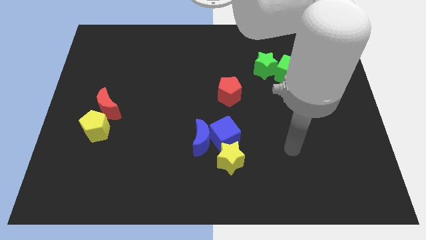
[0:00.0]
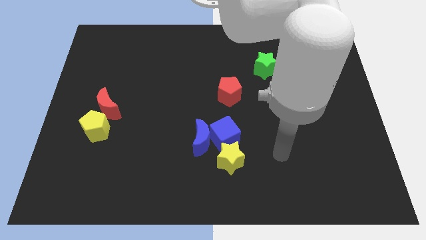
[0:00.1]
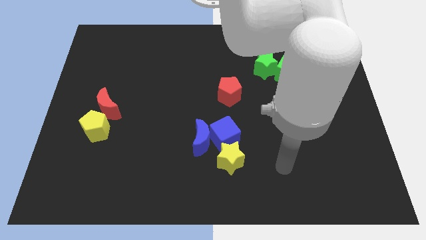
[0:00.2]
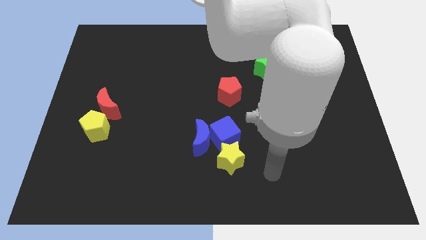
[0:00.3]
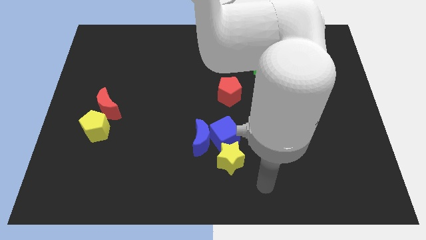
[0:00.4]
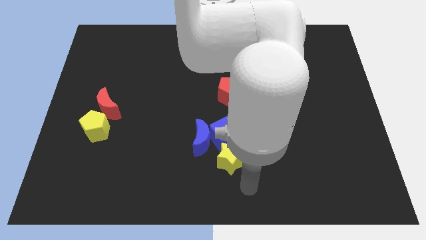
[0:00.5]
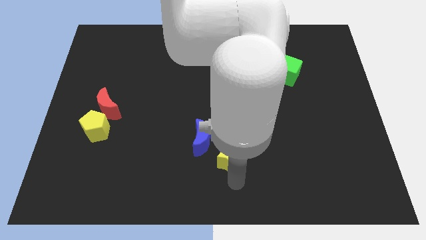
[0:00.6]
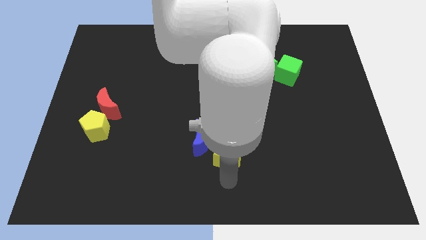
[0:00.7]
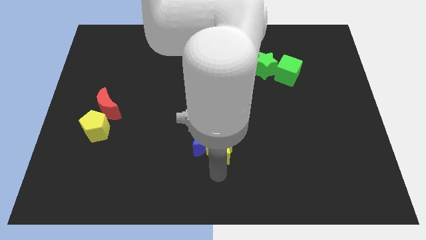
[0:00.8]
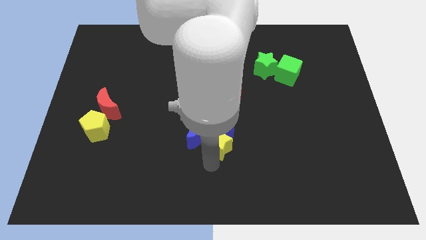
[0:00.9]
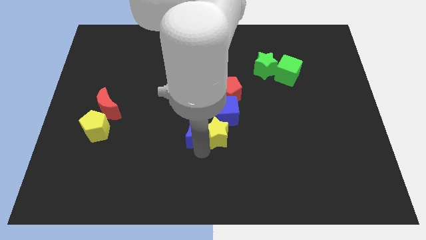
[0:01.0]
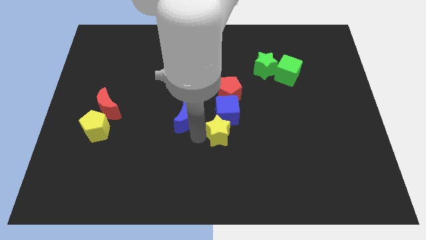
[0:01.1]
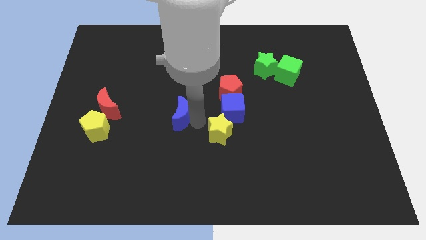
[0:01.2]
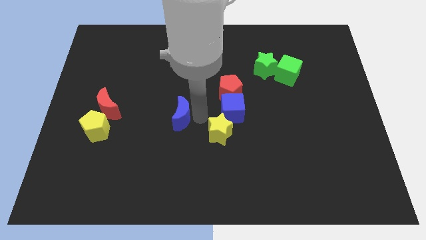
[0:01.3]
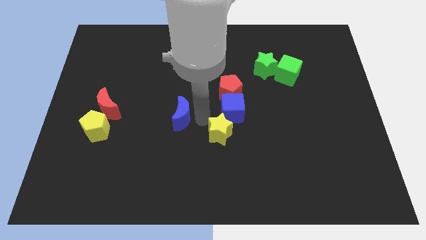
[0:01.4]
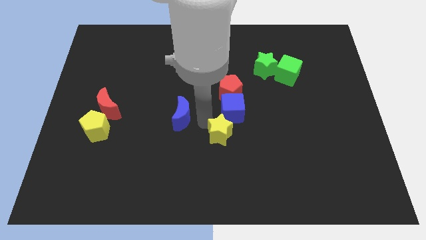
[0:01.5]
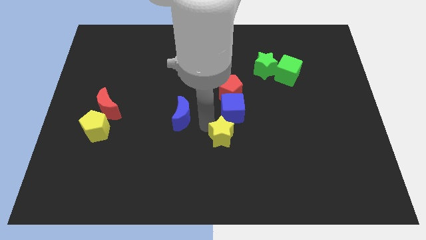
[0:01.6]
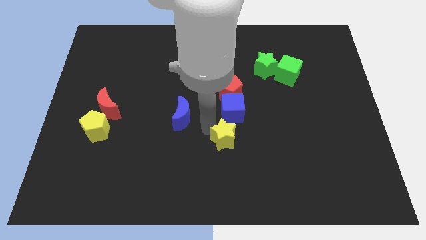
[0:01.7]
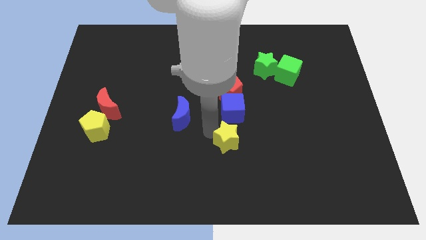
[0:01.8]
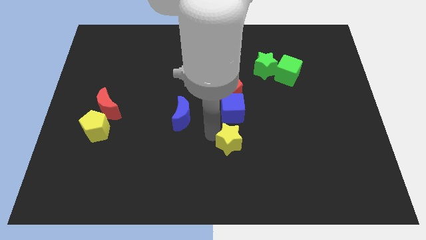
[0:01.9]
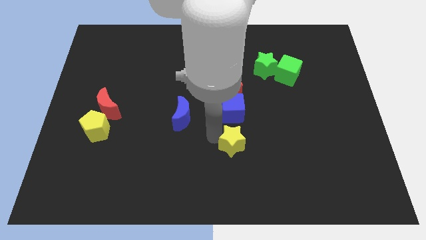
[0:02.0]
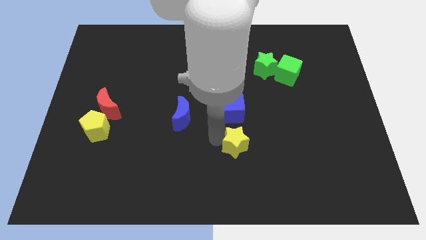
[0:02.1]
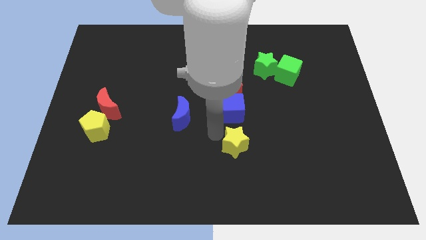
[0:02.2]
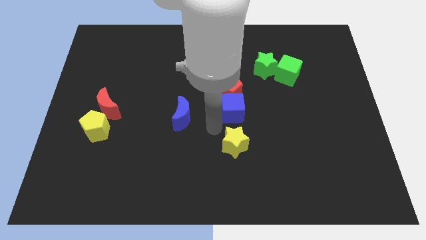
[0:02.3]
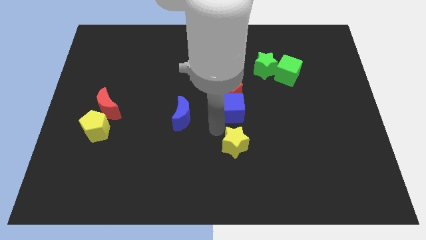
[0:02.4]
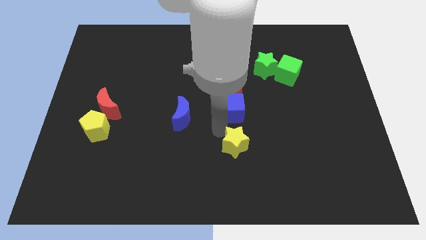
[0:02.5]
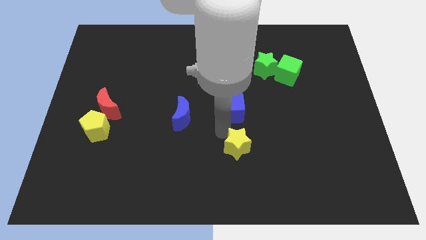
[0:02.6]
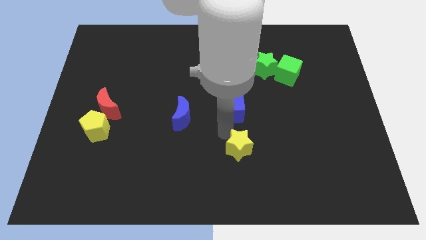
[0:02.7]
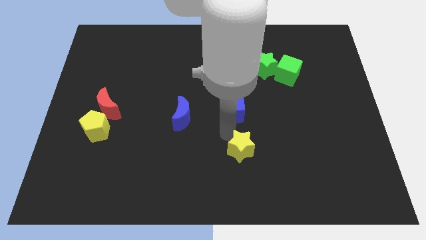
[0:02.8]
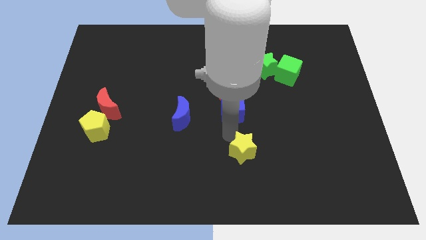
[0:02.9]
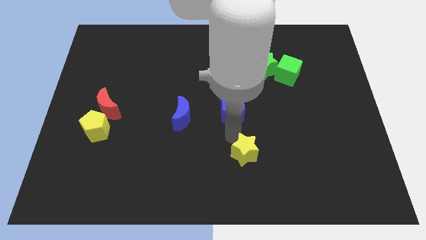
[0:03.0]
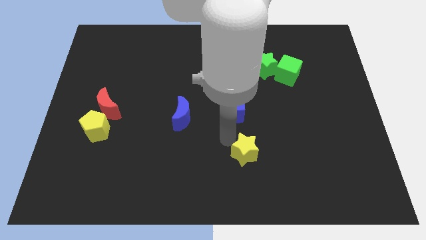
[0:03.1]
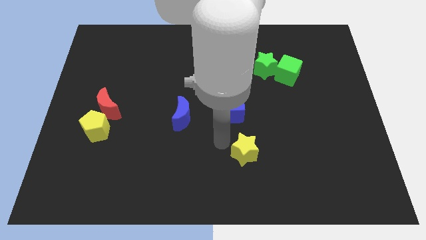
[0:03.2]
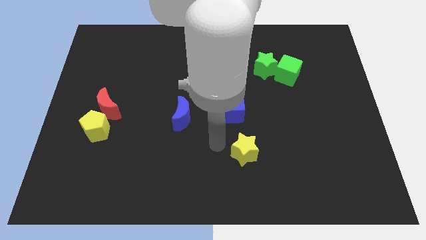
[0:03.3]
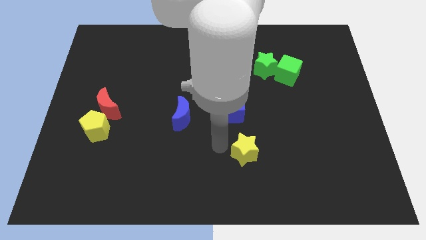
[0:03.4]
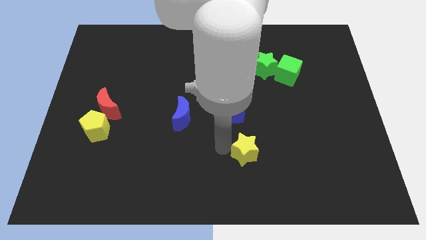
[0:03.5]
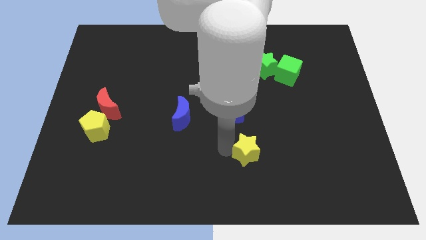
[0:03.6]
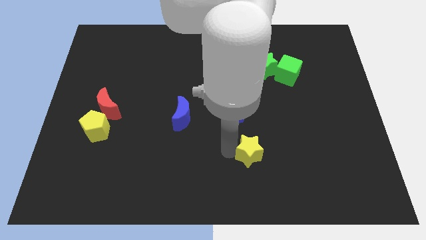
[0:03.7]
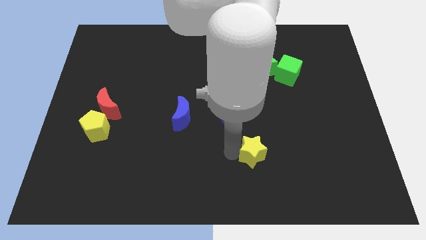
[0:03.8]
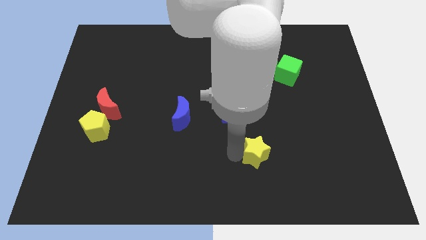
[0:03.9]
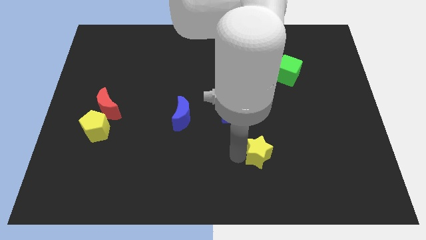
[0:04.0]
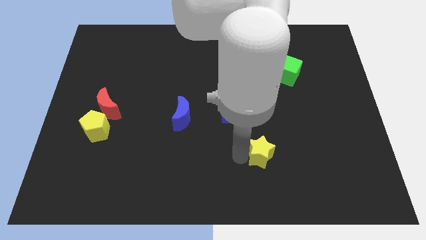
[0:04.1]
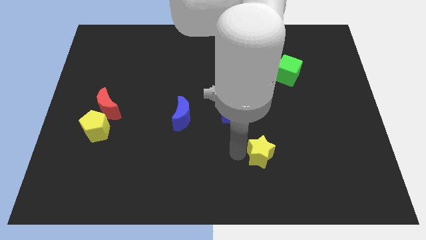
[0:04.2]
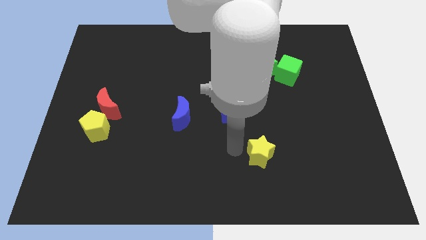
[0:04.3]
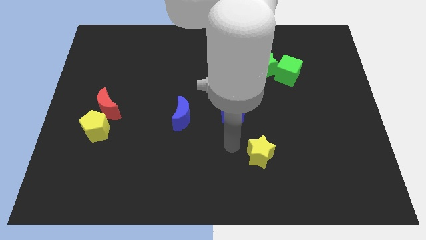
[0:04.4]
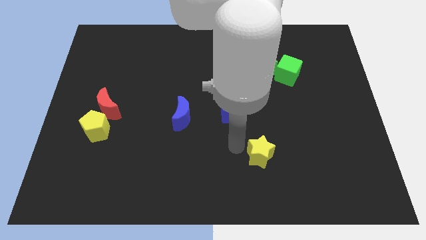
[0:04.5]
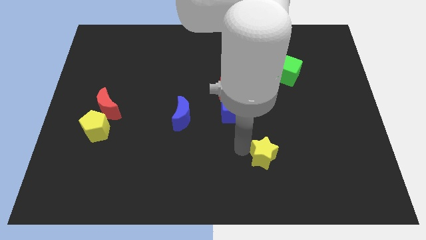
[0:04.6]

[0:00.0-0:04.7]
slightly push the yellow star to the right

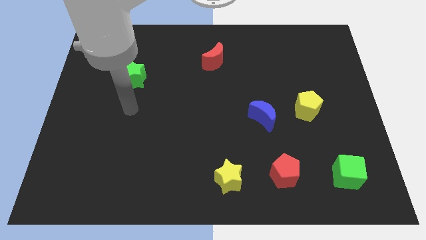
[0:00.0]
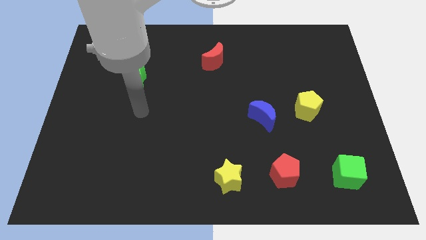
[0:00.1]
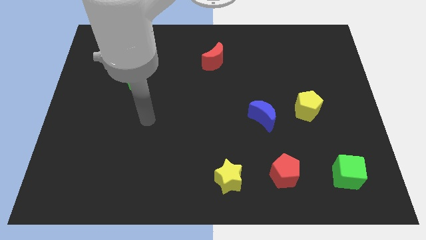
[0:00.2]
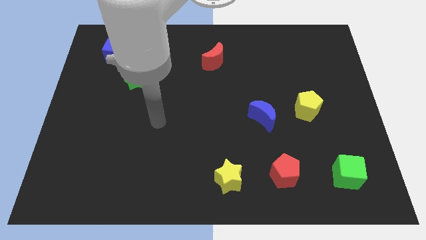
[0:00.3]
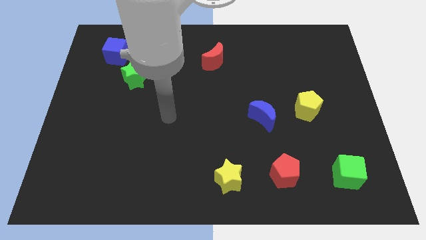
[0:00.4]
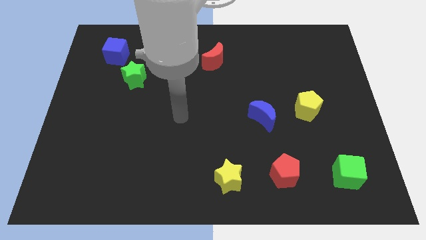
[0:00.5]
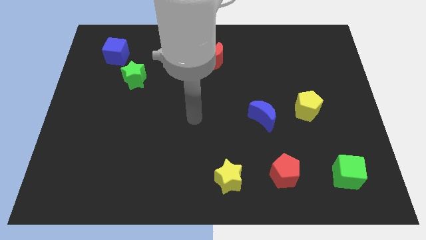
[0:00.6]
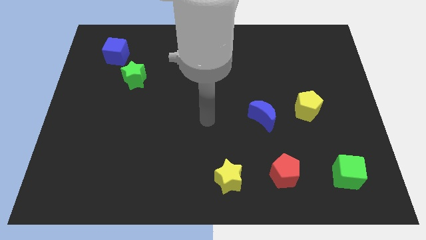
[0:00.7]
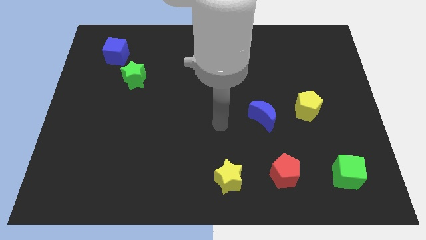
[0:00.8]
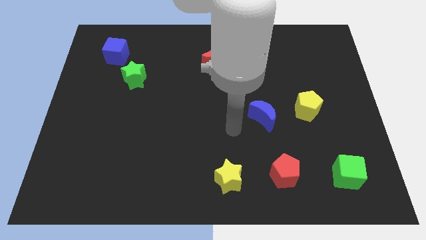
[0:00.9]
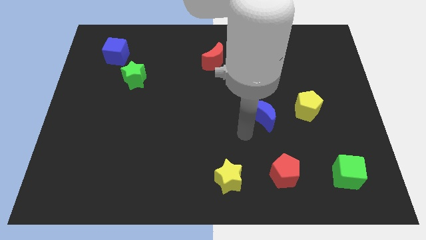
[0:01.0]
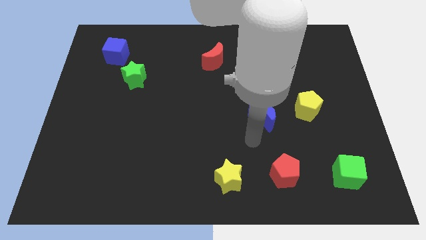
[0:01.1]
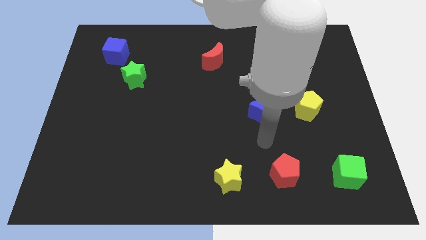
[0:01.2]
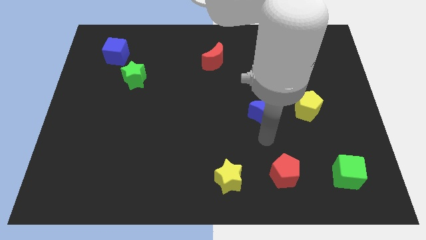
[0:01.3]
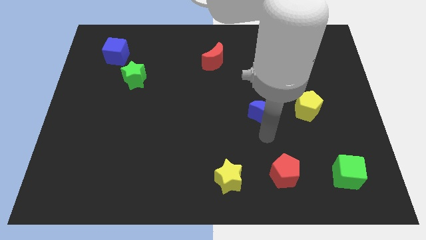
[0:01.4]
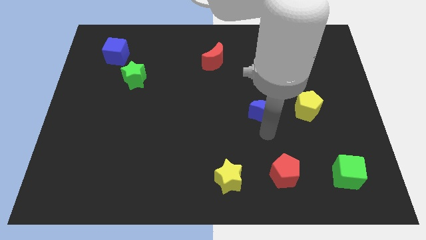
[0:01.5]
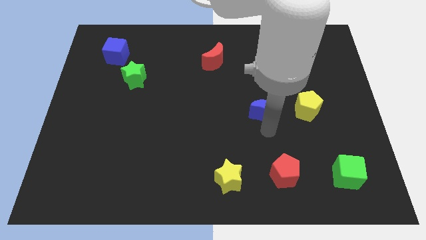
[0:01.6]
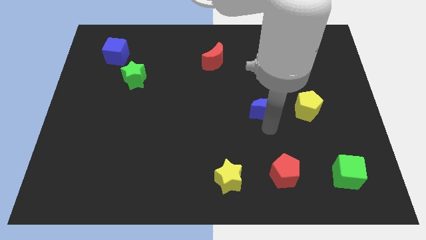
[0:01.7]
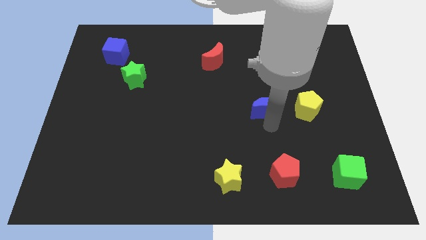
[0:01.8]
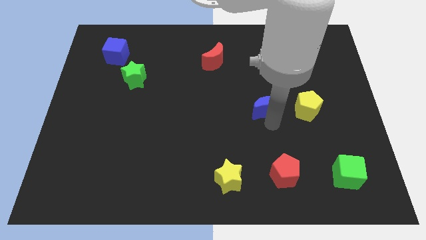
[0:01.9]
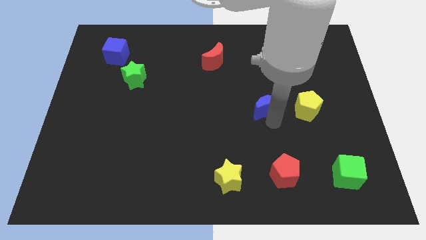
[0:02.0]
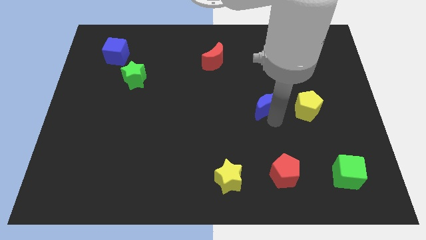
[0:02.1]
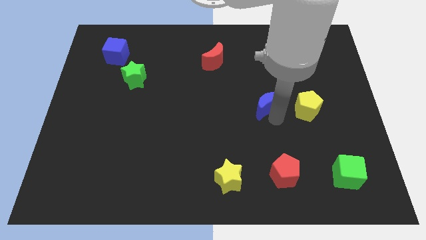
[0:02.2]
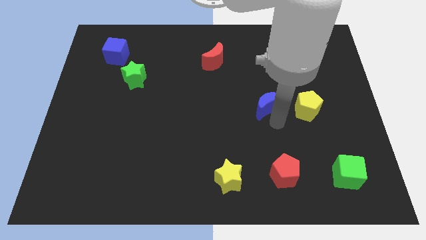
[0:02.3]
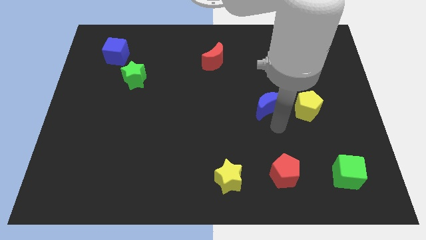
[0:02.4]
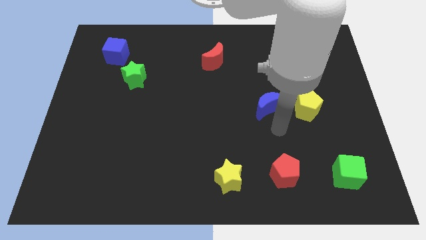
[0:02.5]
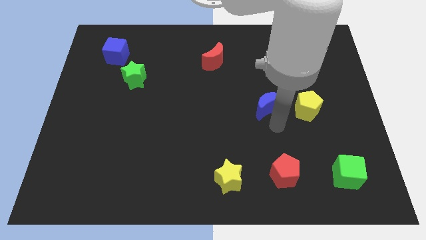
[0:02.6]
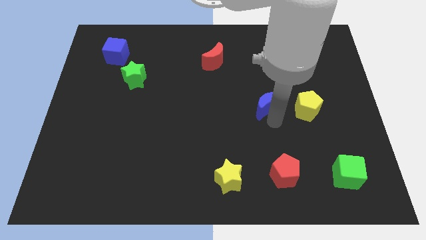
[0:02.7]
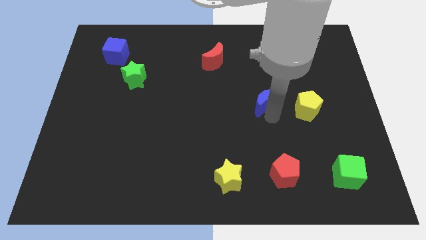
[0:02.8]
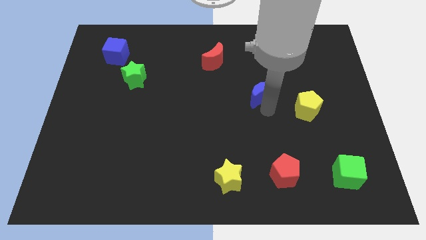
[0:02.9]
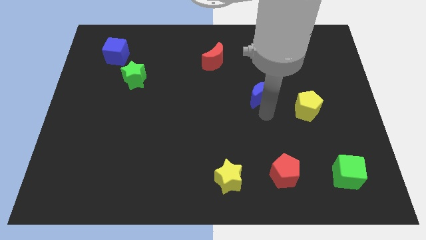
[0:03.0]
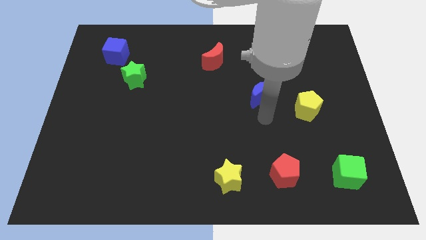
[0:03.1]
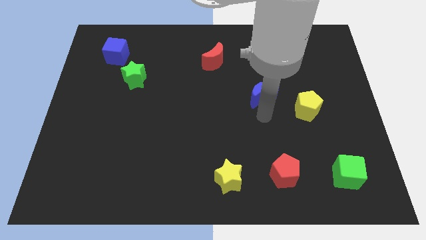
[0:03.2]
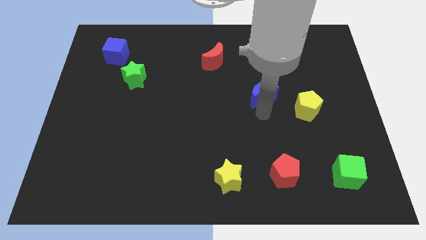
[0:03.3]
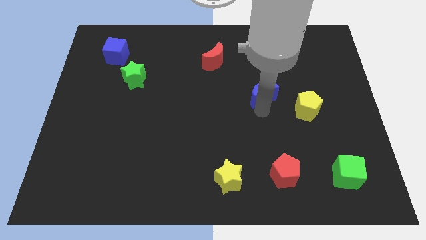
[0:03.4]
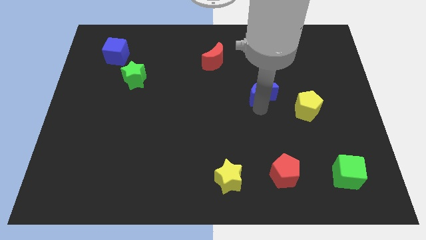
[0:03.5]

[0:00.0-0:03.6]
slide the blue moon up a little
